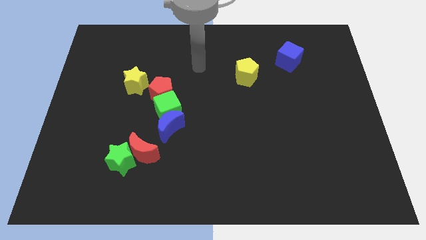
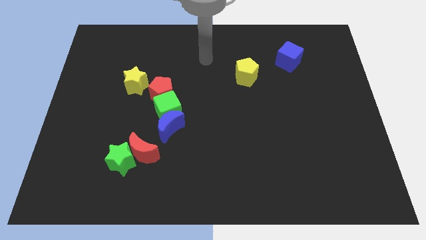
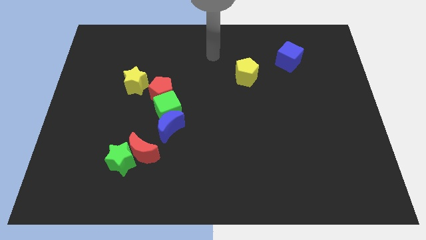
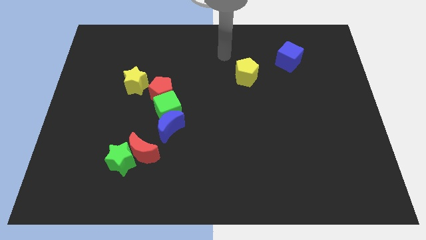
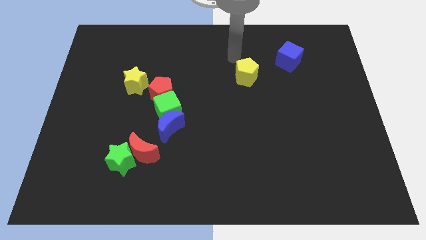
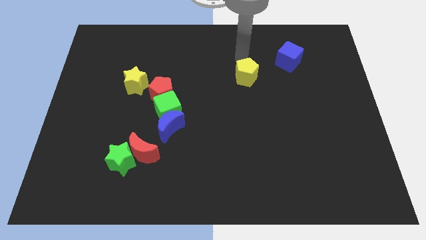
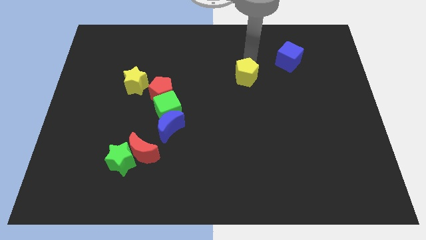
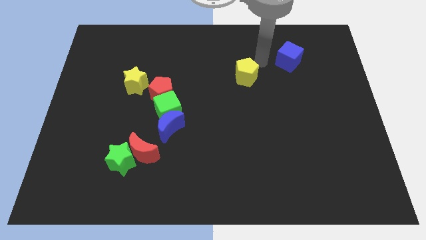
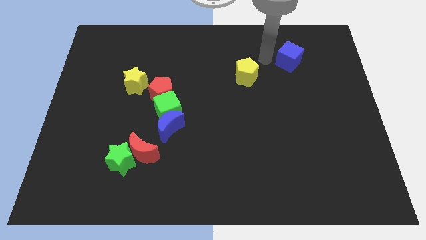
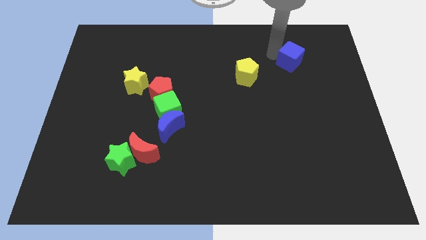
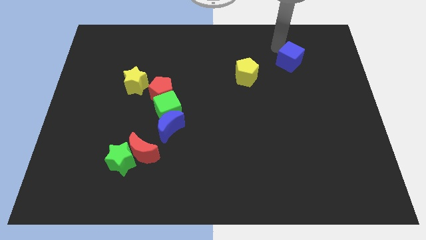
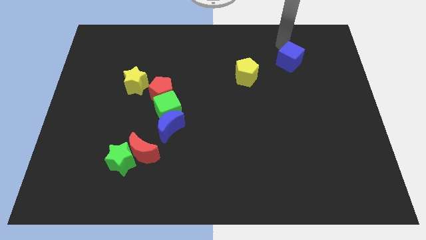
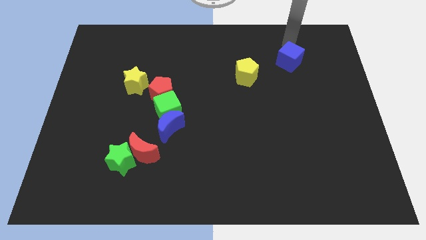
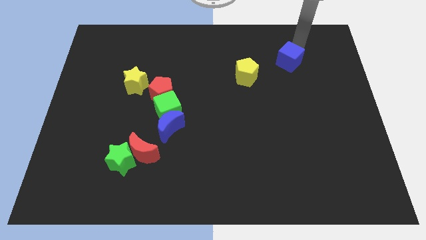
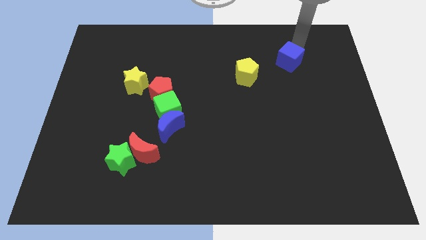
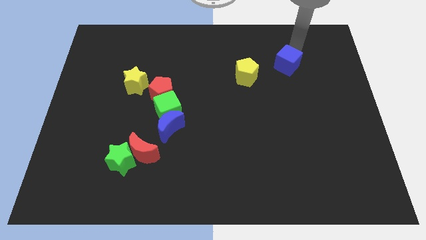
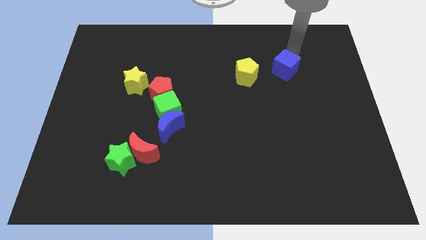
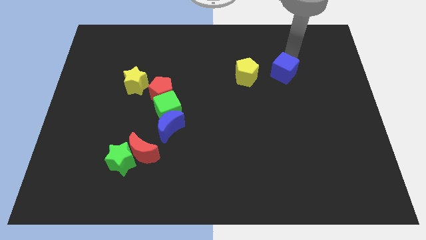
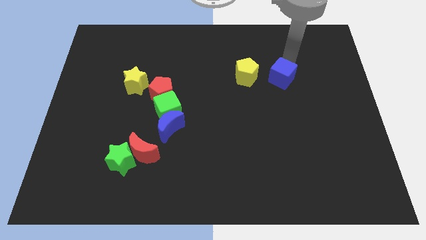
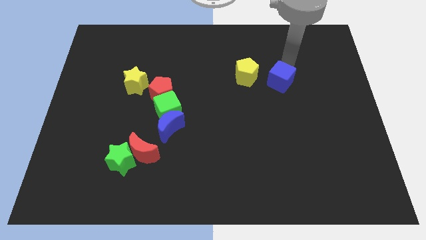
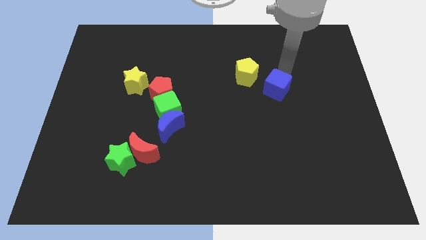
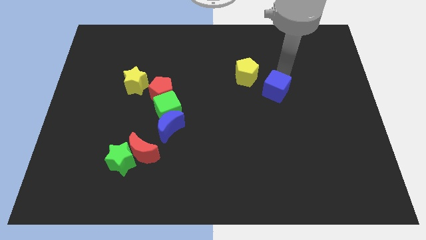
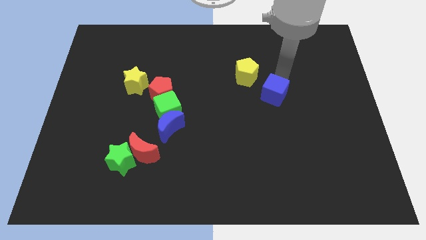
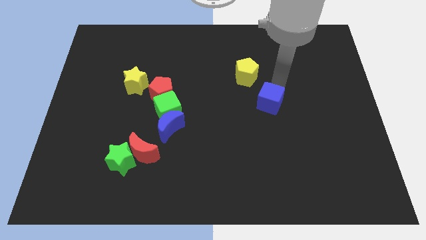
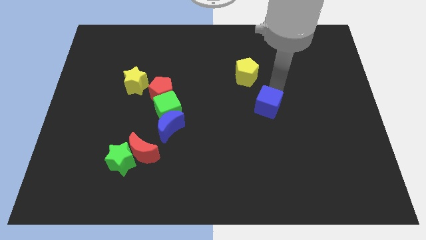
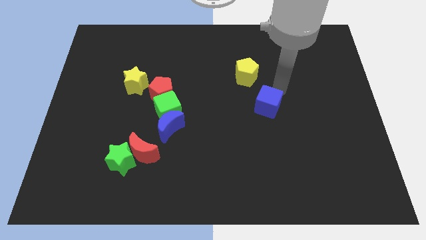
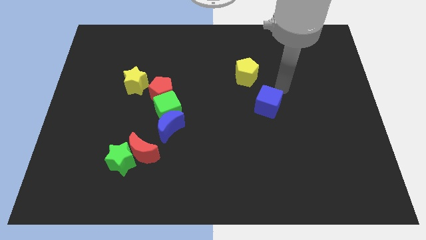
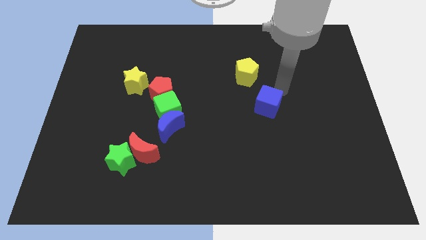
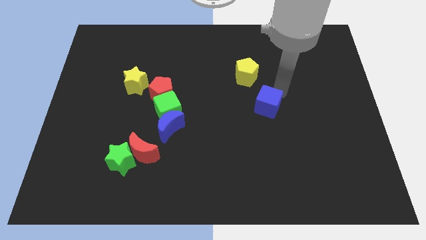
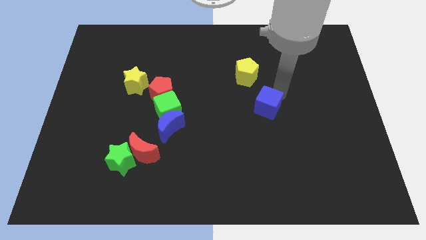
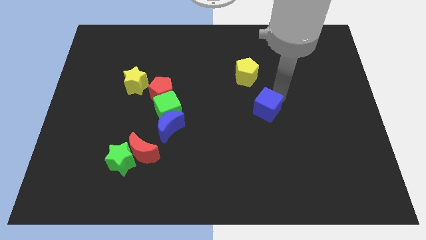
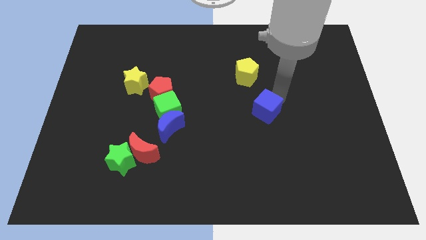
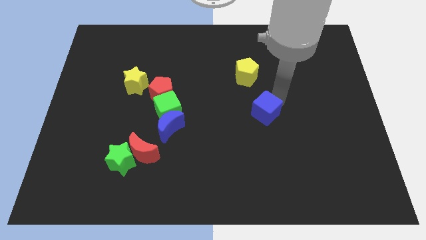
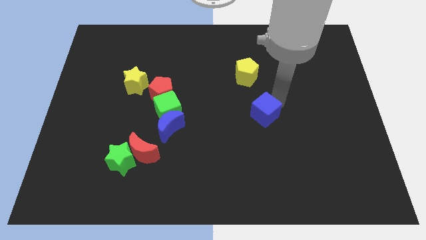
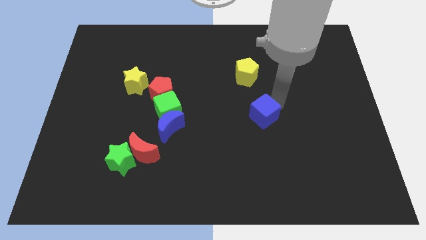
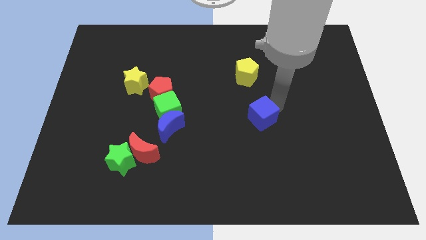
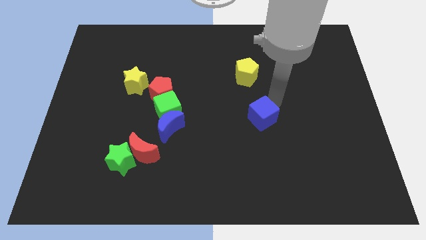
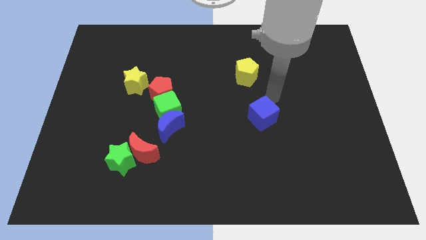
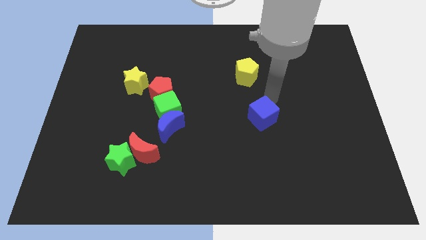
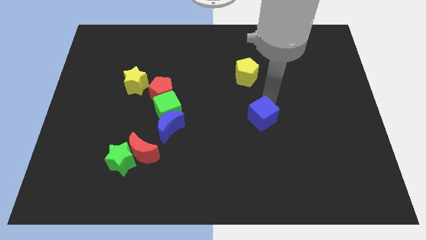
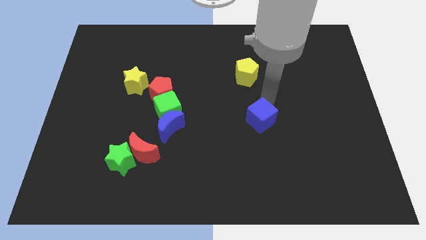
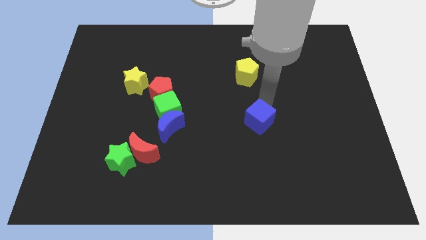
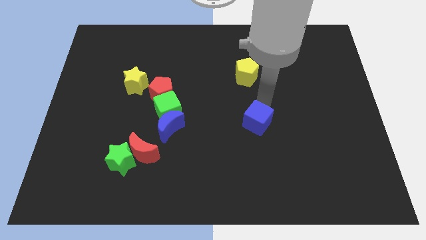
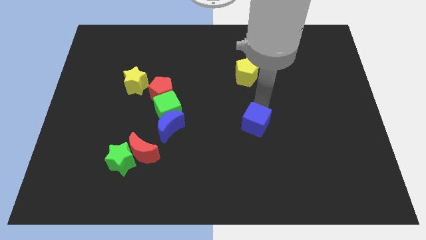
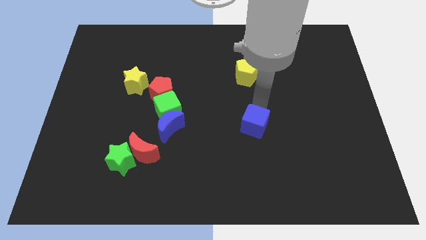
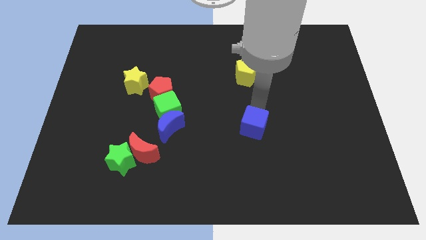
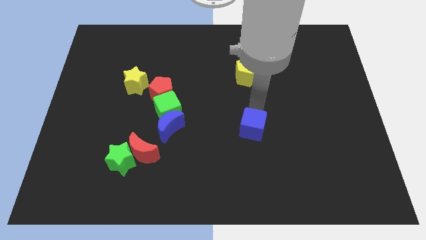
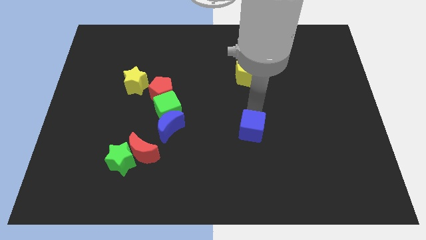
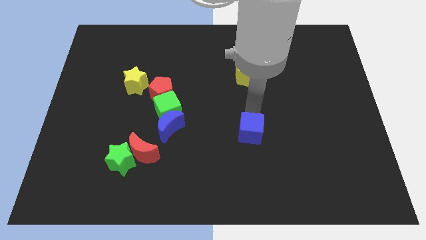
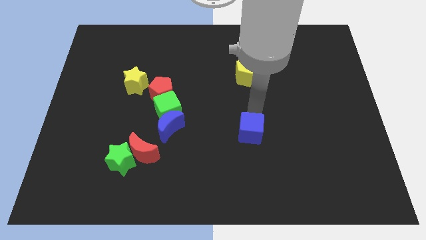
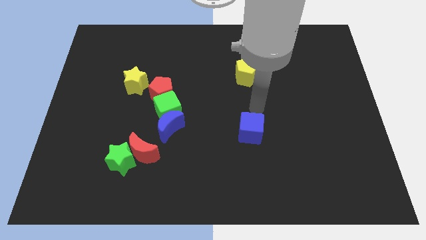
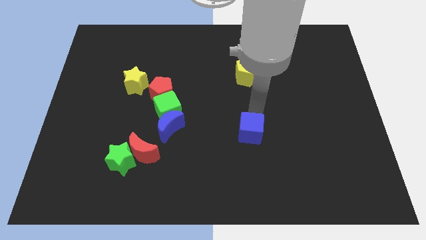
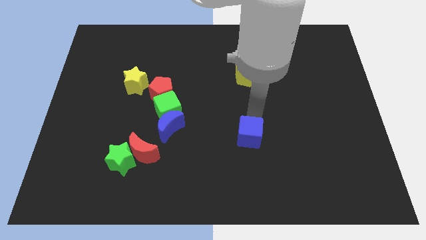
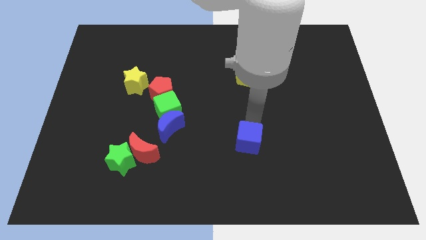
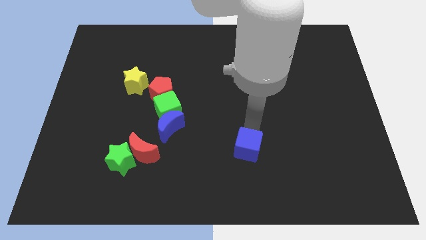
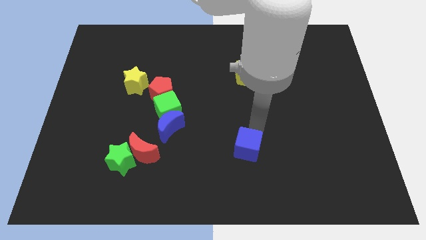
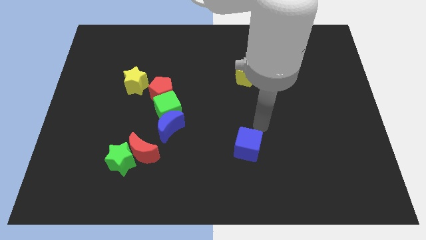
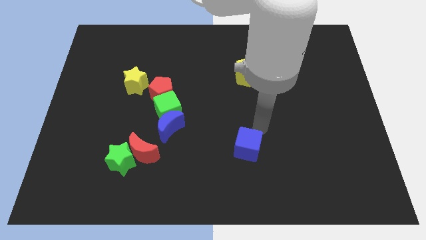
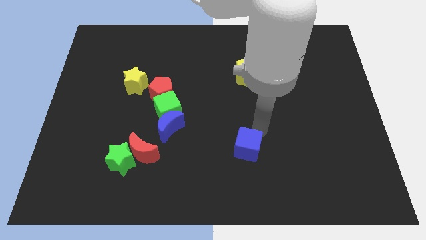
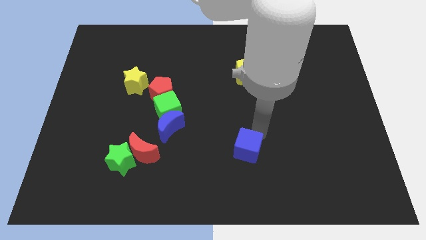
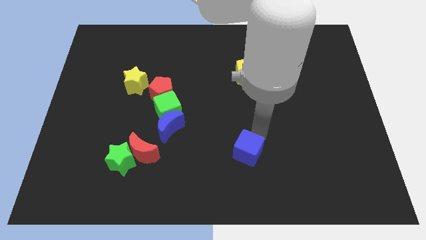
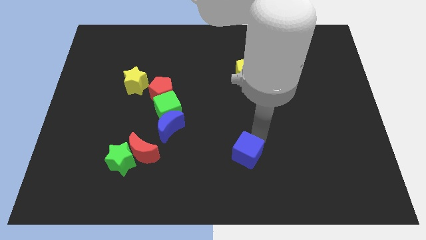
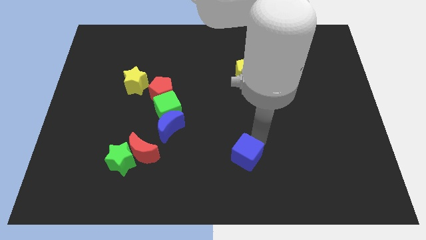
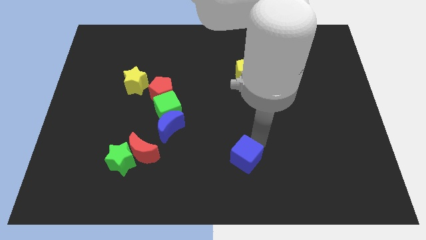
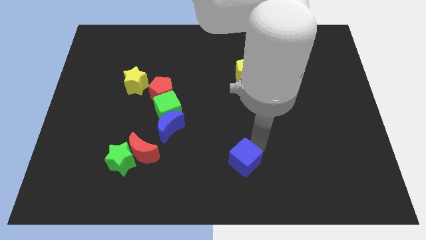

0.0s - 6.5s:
slide the blue cube to the bottom side

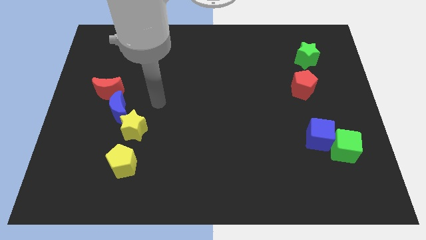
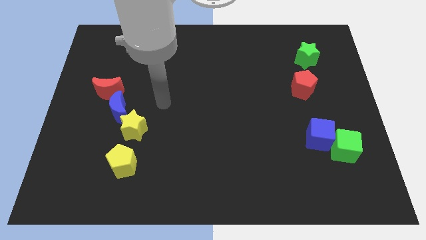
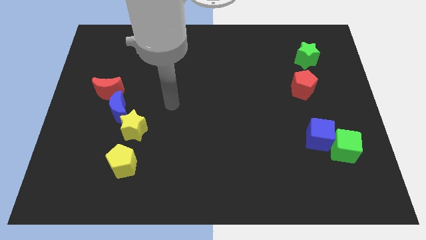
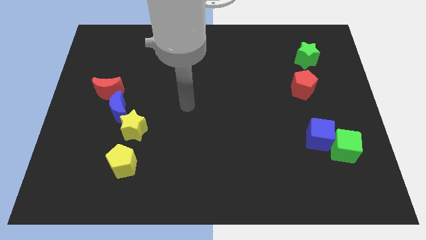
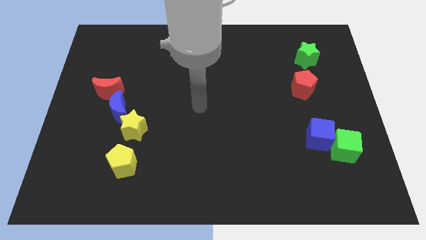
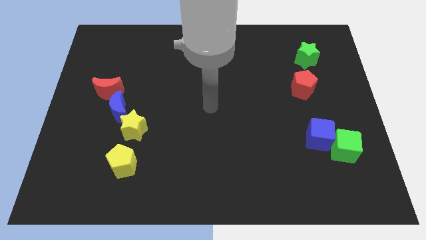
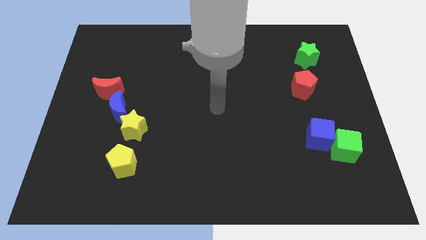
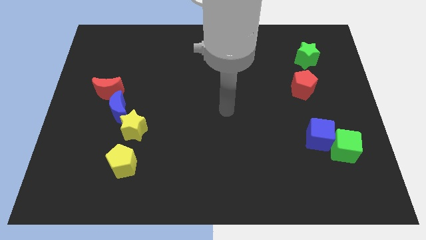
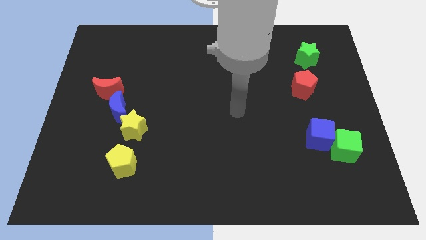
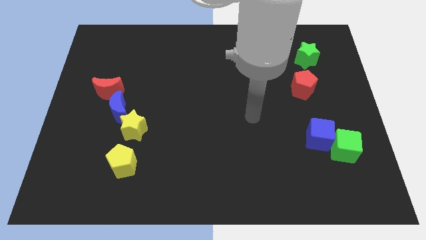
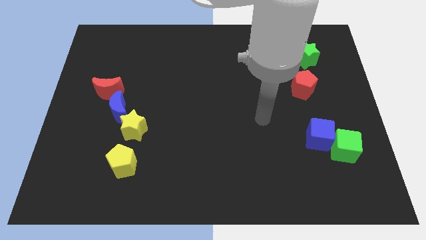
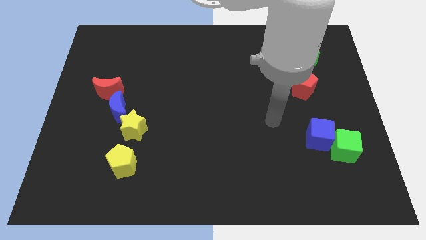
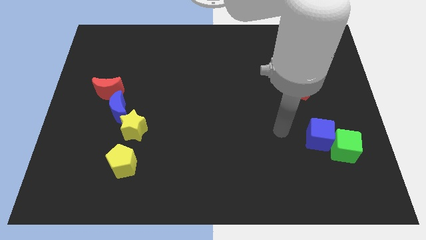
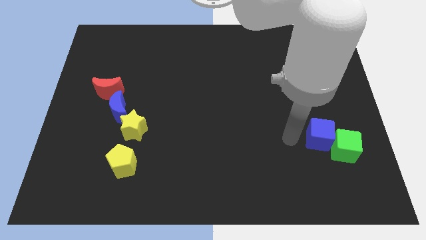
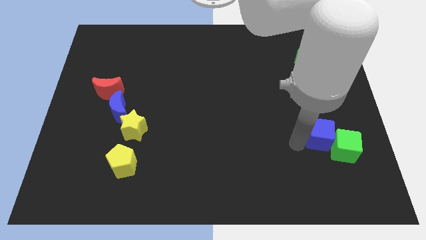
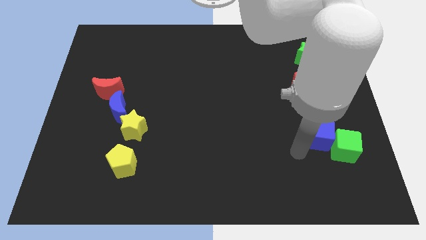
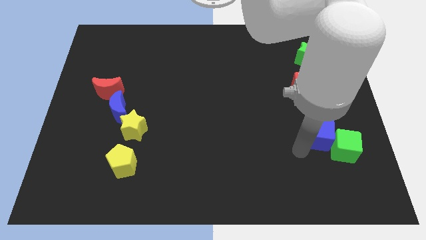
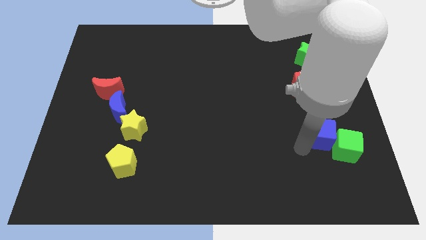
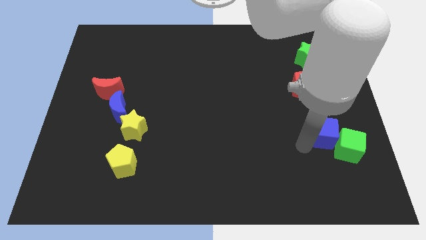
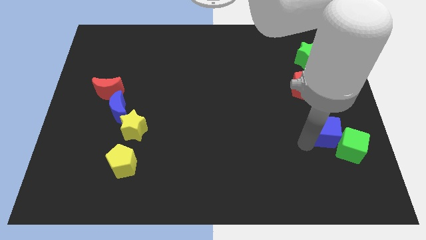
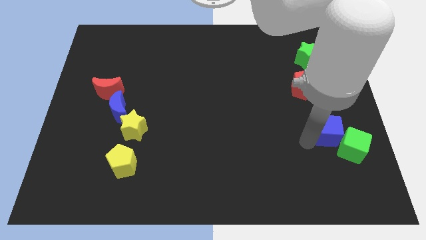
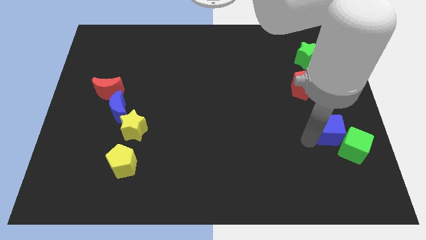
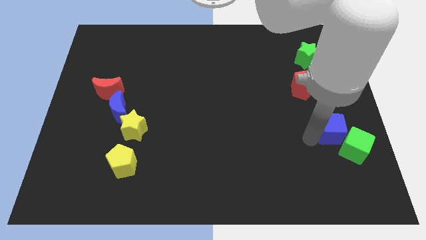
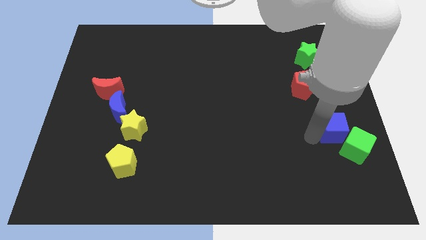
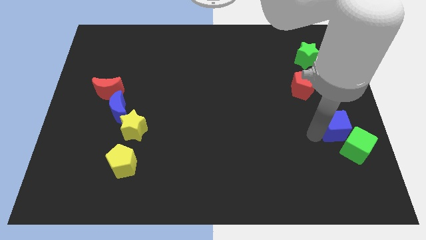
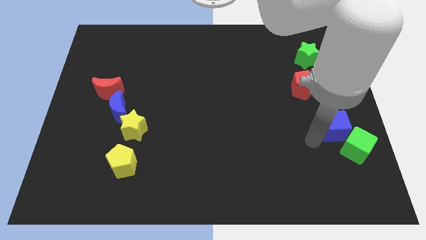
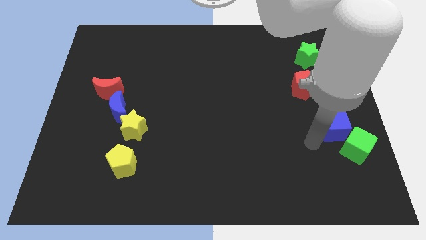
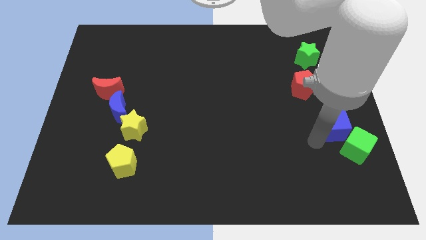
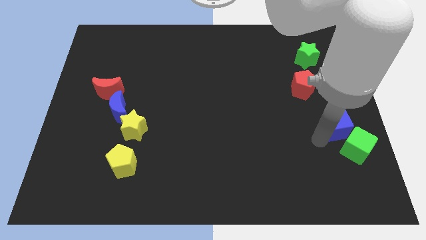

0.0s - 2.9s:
push the blue cube to the center right
